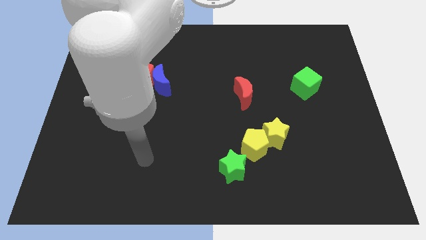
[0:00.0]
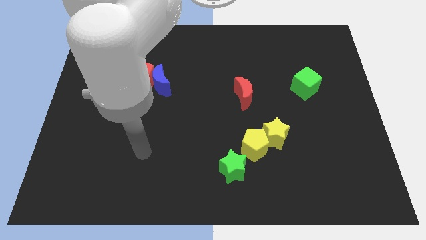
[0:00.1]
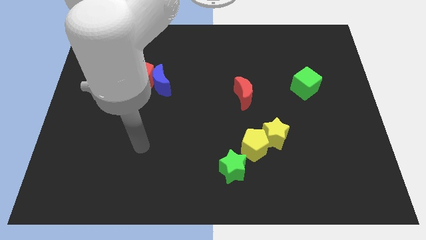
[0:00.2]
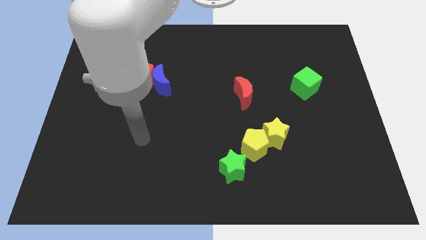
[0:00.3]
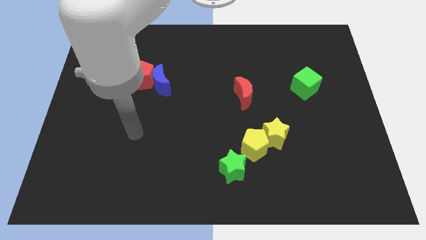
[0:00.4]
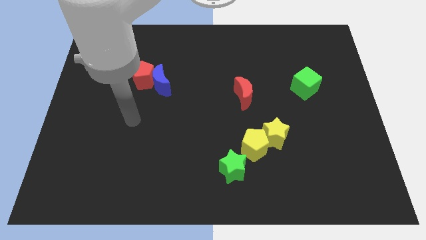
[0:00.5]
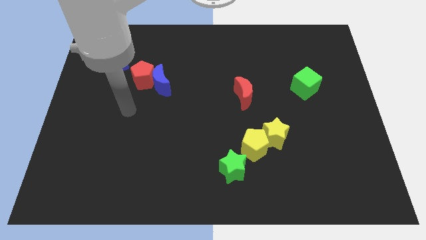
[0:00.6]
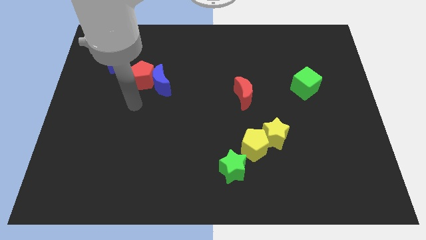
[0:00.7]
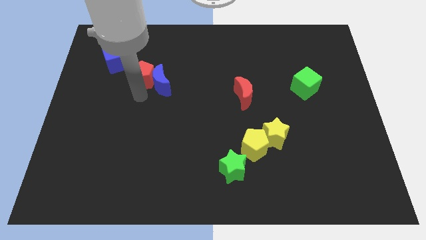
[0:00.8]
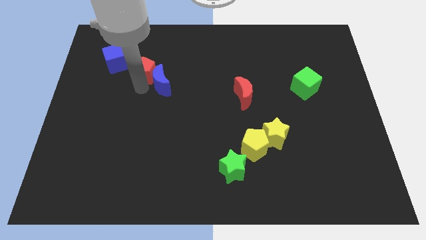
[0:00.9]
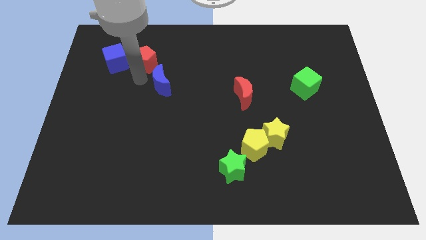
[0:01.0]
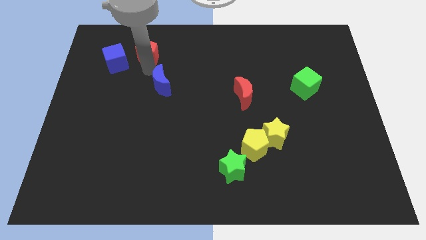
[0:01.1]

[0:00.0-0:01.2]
separate the blue moon from the red pentagon

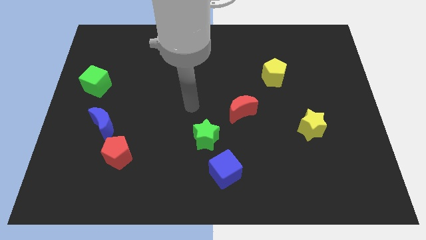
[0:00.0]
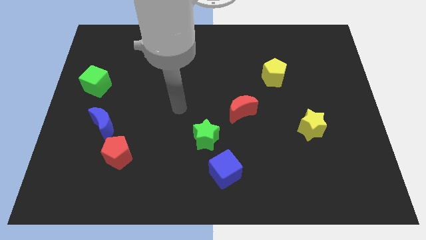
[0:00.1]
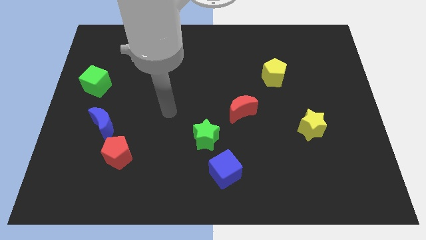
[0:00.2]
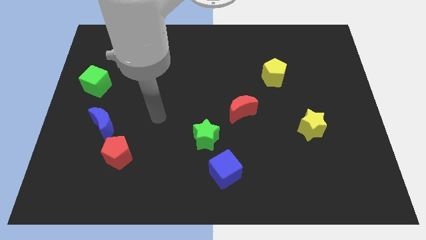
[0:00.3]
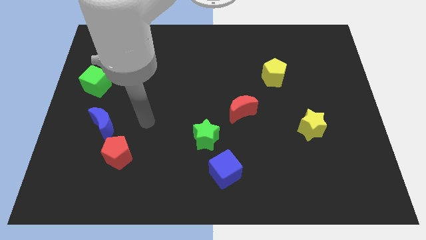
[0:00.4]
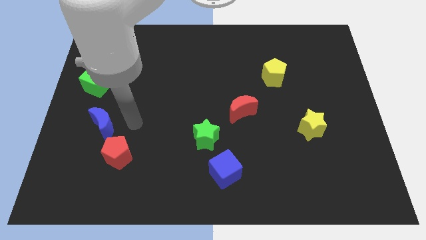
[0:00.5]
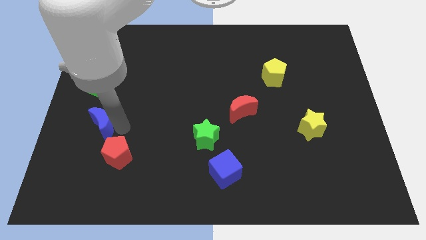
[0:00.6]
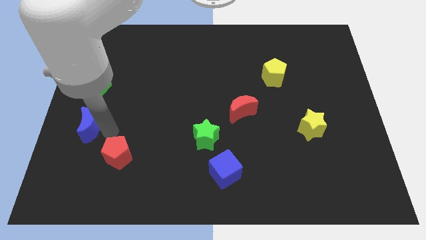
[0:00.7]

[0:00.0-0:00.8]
separate the red pentagon from the blue moon

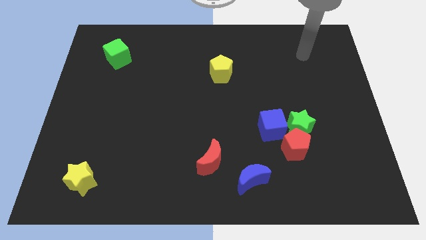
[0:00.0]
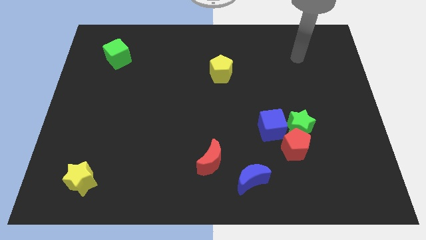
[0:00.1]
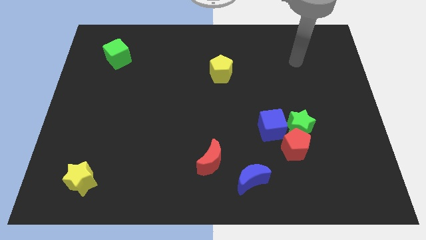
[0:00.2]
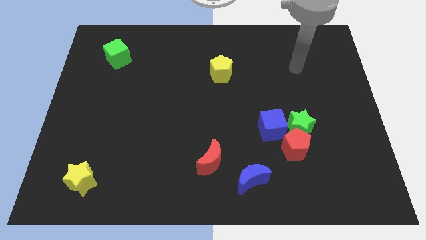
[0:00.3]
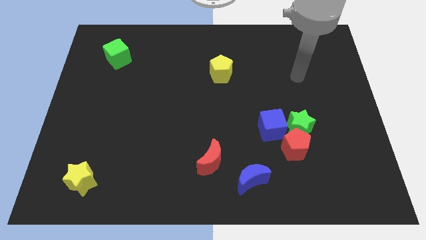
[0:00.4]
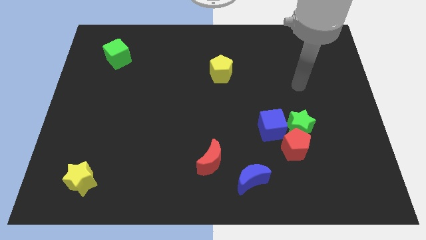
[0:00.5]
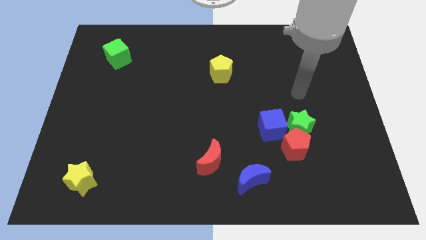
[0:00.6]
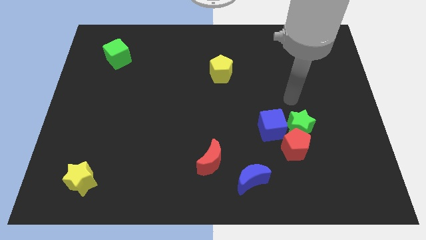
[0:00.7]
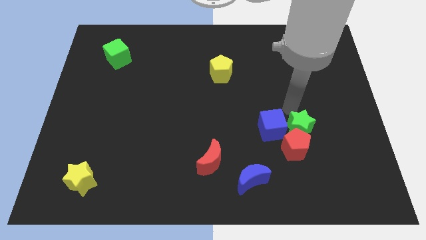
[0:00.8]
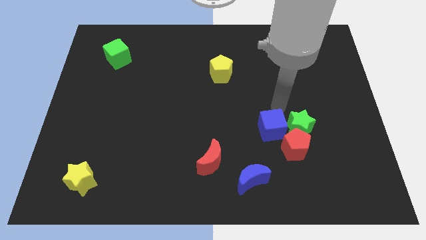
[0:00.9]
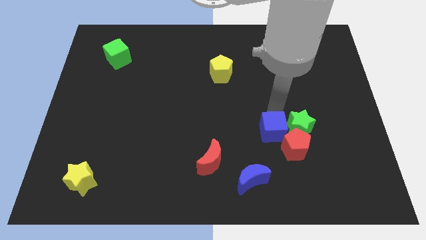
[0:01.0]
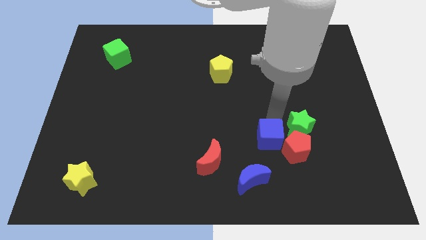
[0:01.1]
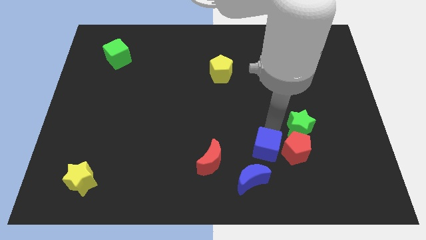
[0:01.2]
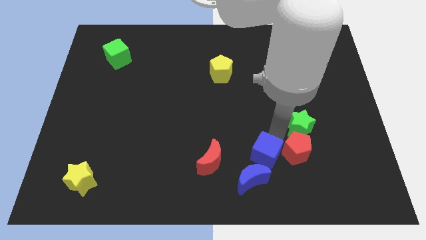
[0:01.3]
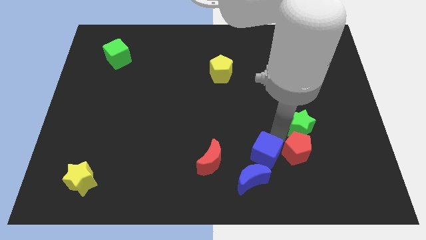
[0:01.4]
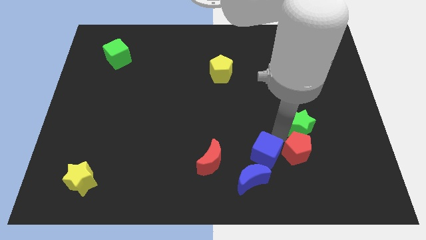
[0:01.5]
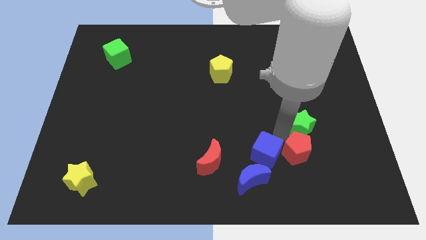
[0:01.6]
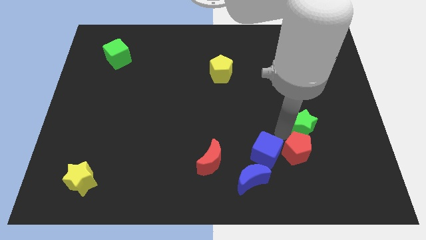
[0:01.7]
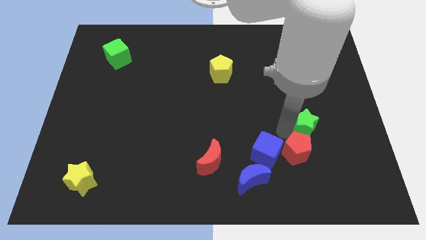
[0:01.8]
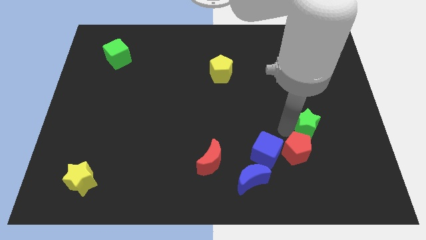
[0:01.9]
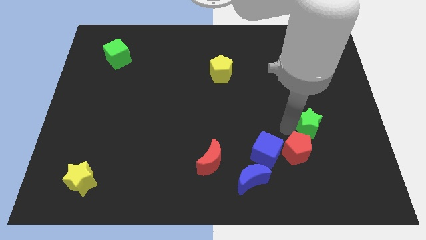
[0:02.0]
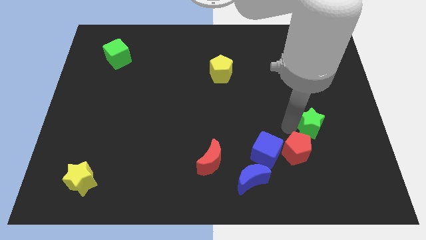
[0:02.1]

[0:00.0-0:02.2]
pull the green star apart from the red pentagon and blue cube

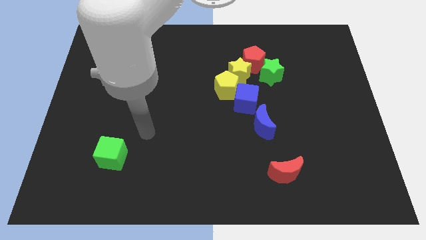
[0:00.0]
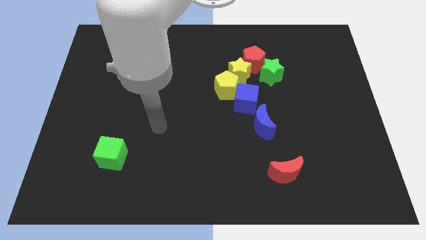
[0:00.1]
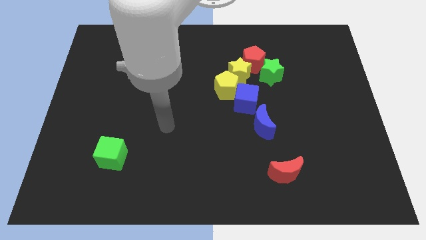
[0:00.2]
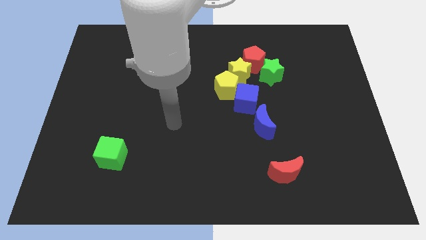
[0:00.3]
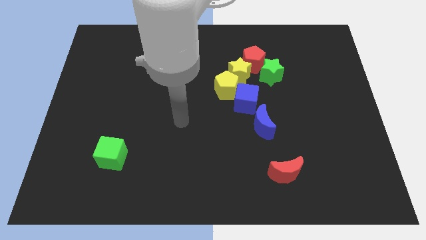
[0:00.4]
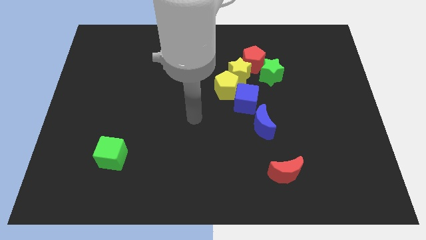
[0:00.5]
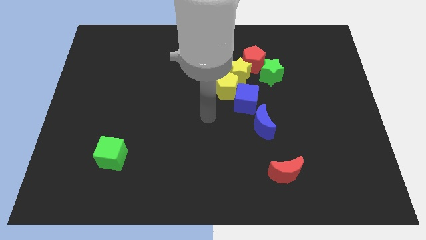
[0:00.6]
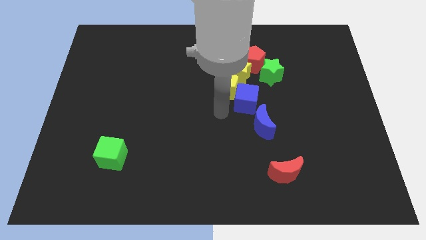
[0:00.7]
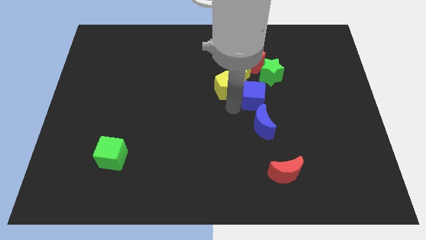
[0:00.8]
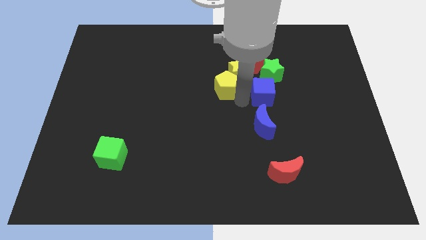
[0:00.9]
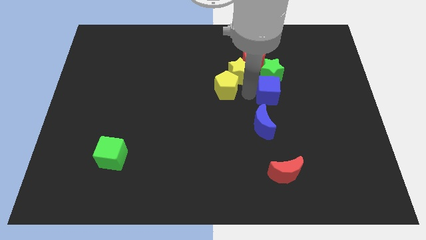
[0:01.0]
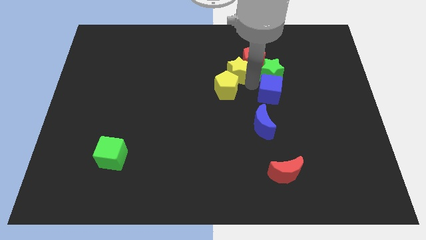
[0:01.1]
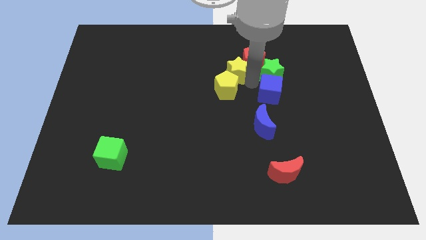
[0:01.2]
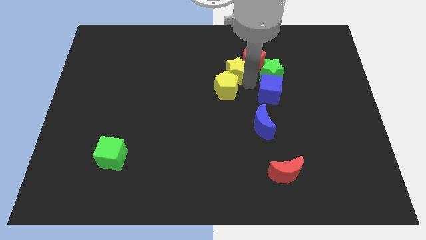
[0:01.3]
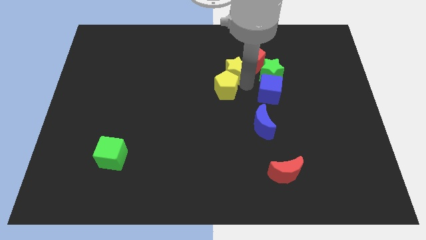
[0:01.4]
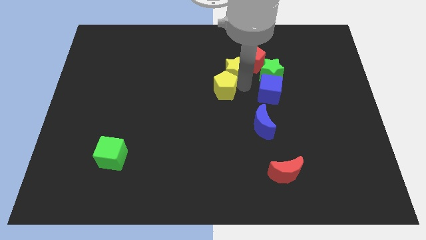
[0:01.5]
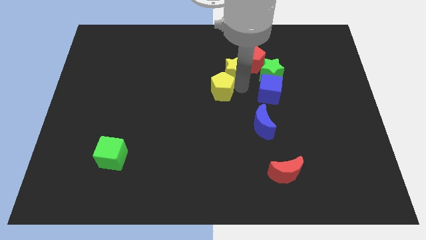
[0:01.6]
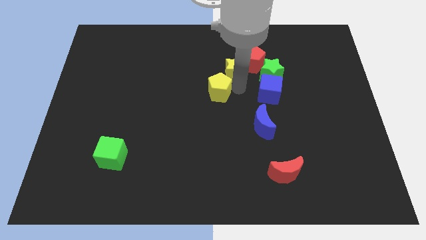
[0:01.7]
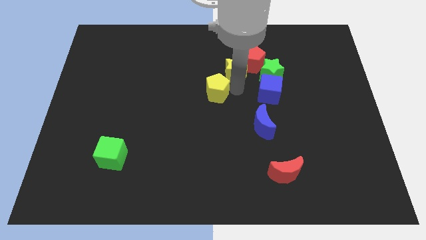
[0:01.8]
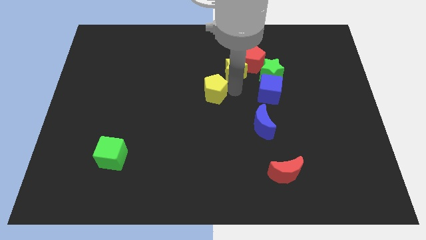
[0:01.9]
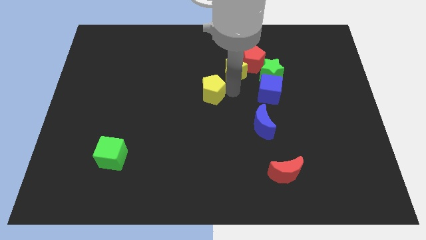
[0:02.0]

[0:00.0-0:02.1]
move the yellow pentagon away from the yellow star and blue cube

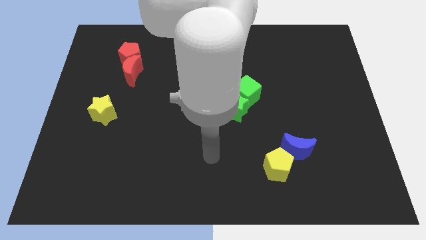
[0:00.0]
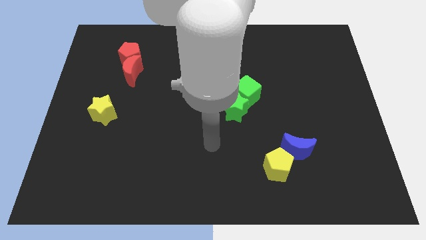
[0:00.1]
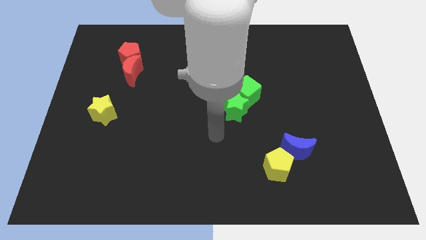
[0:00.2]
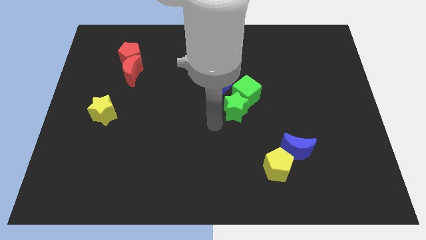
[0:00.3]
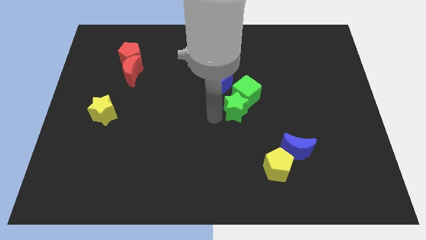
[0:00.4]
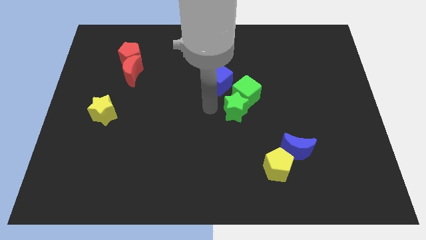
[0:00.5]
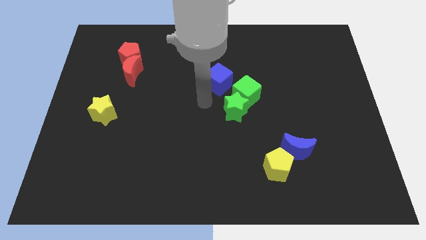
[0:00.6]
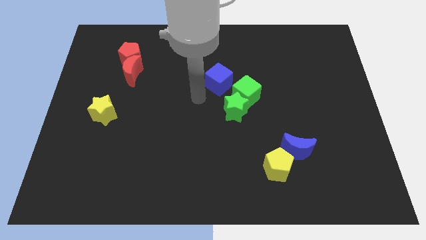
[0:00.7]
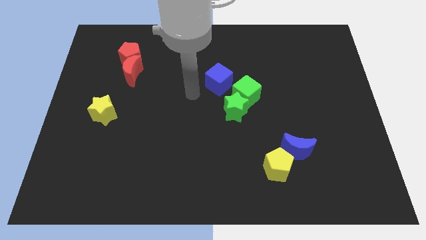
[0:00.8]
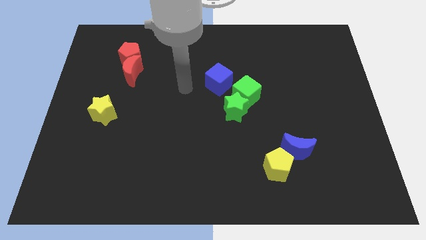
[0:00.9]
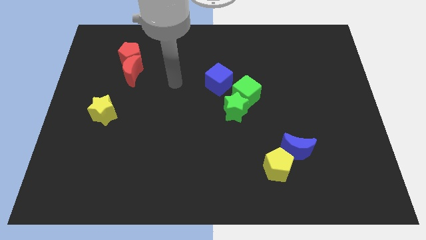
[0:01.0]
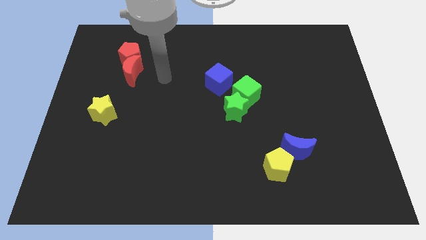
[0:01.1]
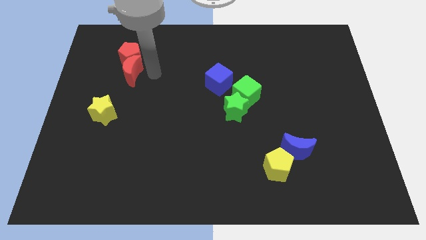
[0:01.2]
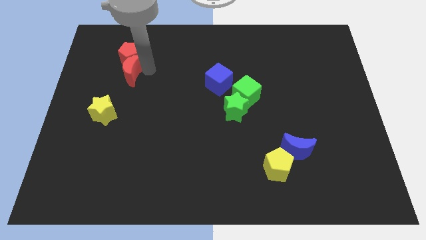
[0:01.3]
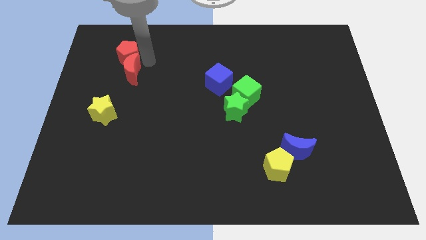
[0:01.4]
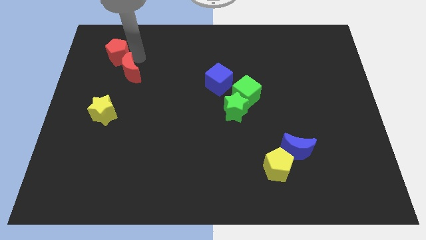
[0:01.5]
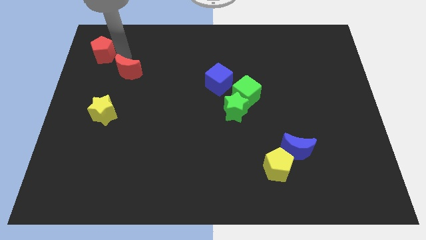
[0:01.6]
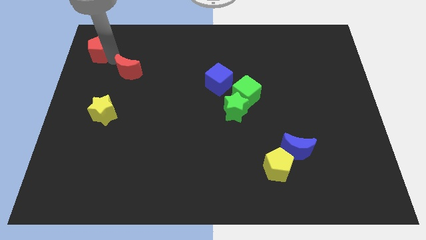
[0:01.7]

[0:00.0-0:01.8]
pull the red moon apart from the red pentagon

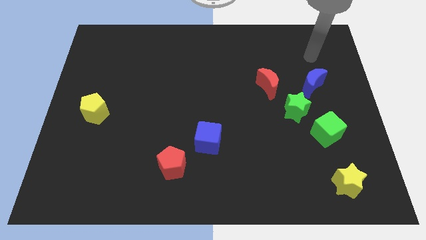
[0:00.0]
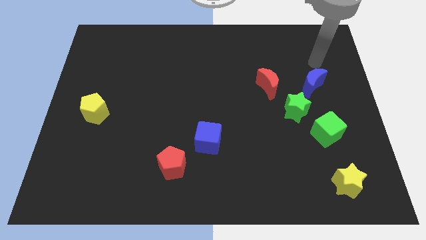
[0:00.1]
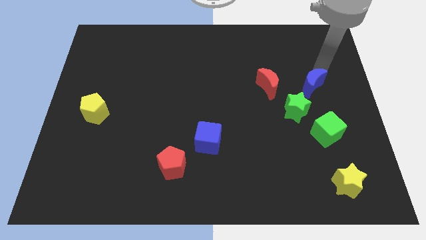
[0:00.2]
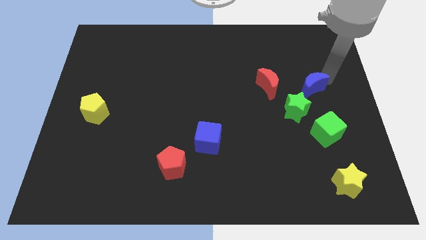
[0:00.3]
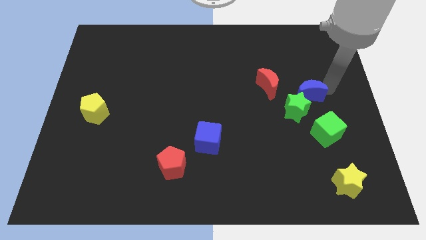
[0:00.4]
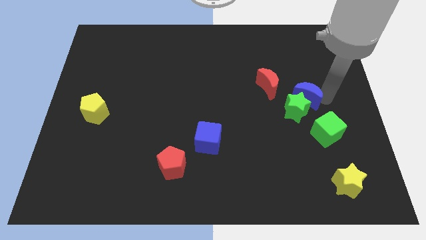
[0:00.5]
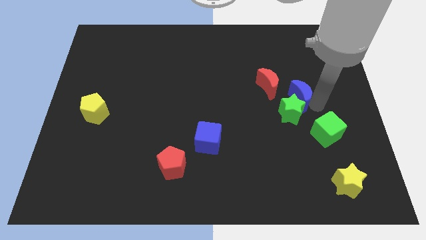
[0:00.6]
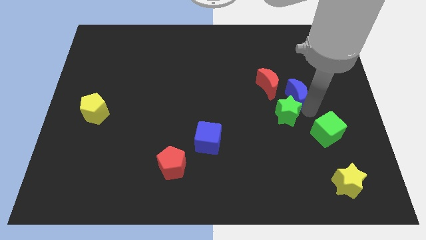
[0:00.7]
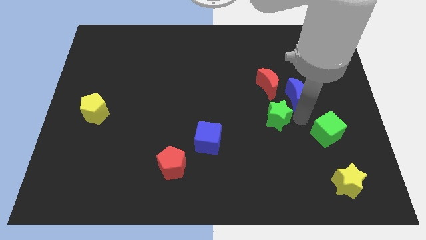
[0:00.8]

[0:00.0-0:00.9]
separate the green cube from the green star

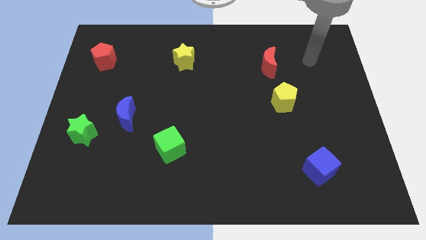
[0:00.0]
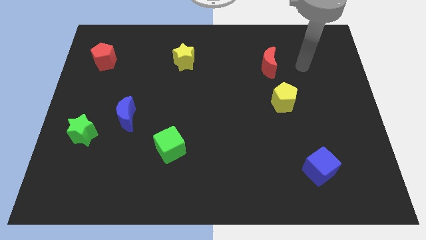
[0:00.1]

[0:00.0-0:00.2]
separate the blue moon from the green star

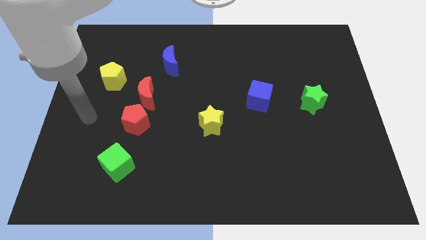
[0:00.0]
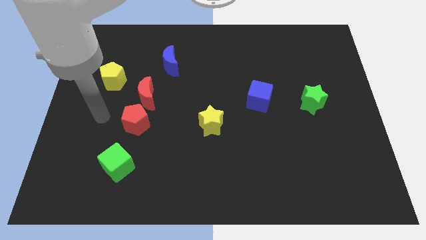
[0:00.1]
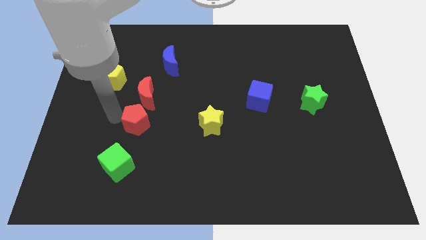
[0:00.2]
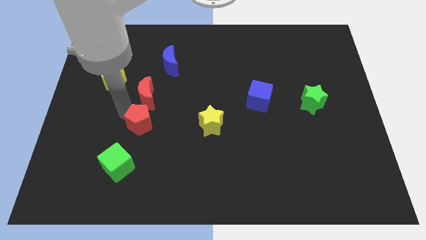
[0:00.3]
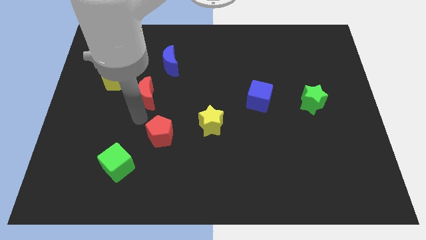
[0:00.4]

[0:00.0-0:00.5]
separate the red moon from the red pentagon
